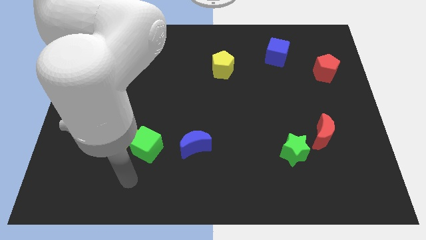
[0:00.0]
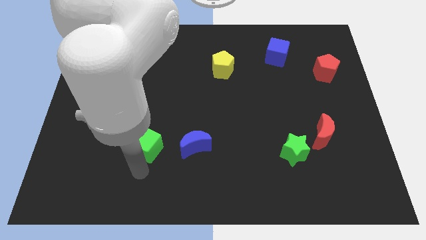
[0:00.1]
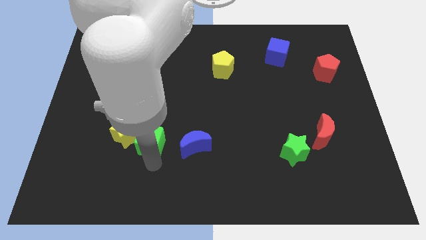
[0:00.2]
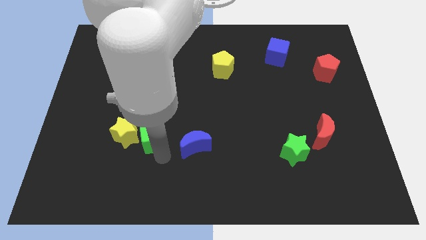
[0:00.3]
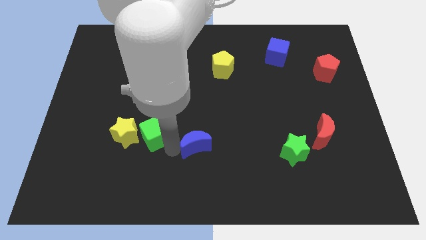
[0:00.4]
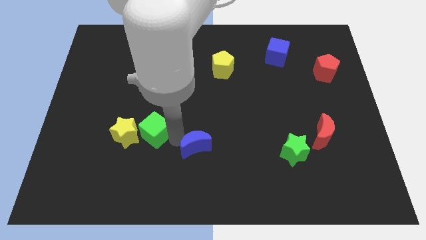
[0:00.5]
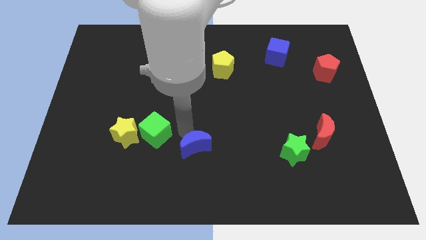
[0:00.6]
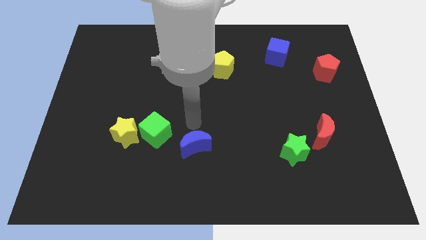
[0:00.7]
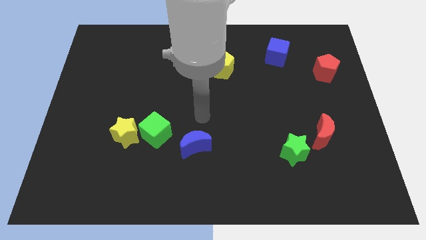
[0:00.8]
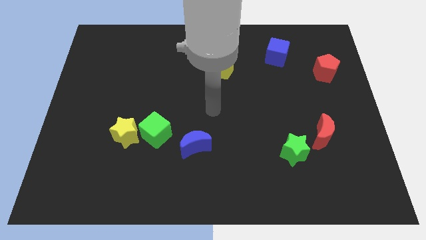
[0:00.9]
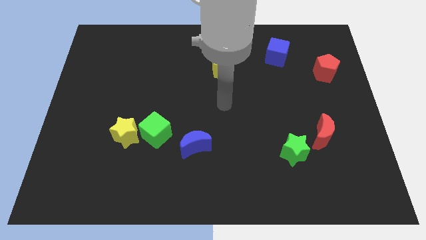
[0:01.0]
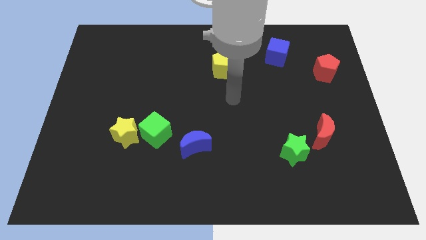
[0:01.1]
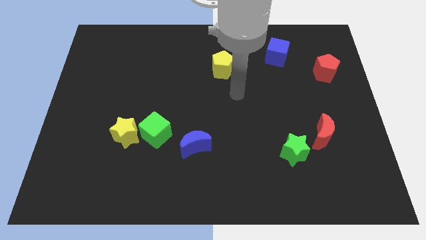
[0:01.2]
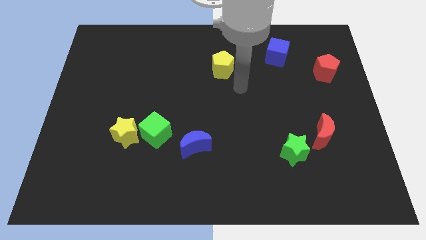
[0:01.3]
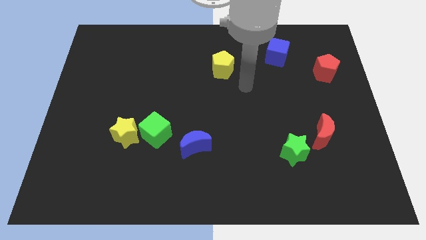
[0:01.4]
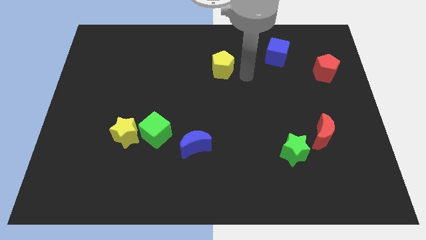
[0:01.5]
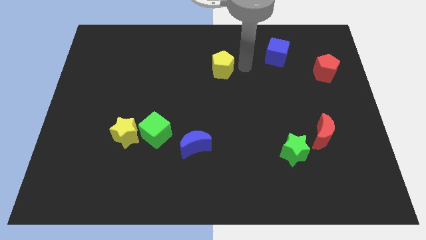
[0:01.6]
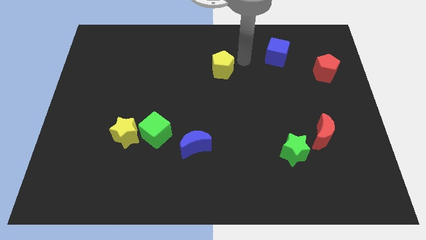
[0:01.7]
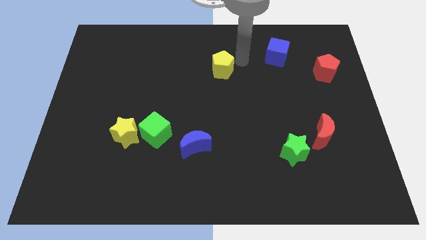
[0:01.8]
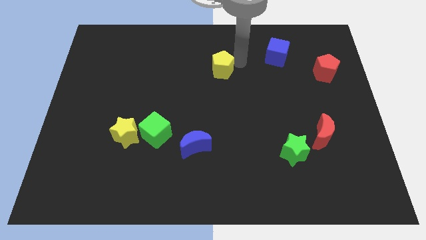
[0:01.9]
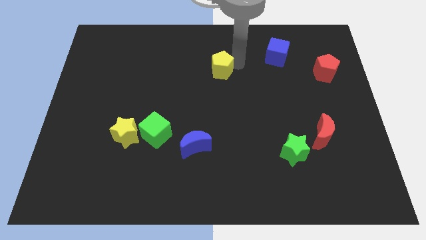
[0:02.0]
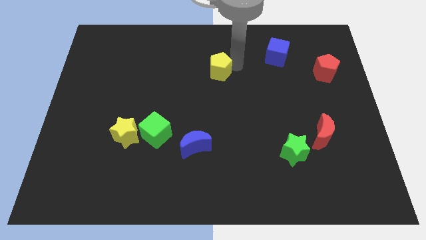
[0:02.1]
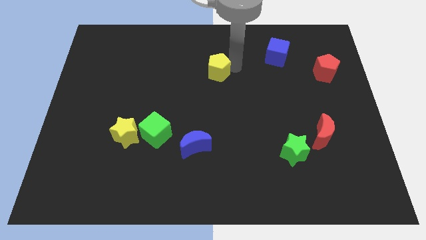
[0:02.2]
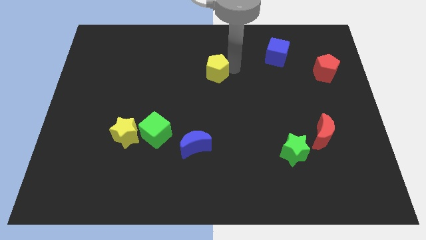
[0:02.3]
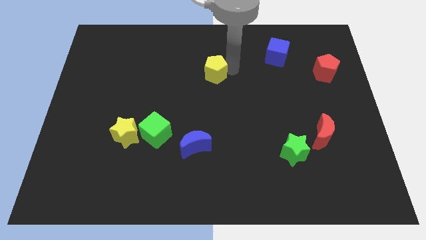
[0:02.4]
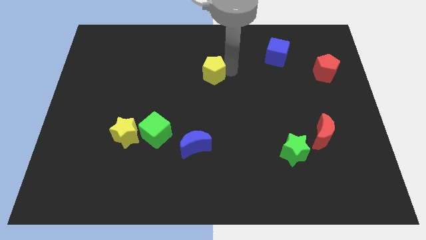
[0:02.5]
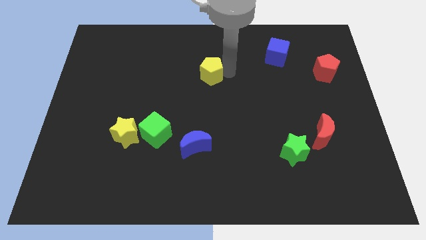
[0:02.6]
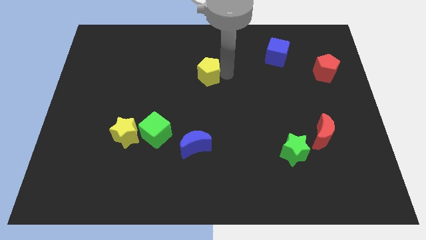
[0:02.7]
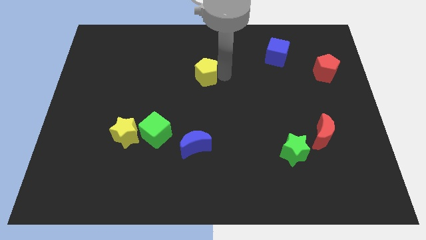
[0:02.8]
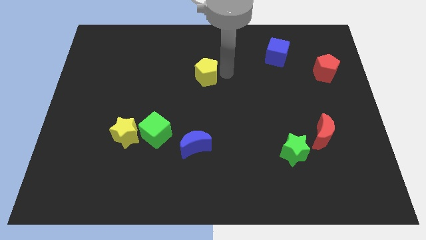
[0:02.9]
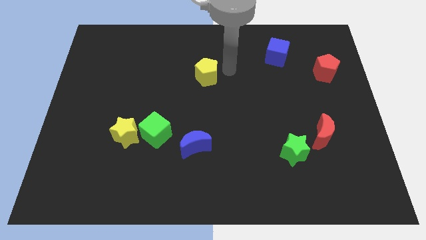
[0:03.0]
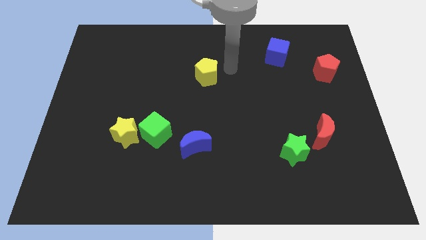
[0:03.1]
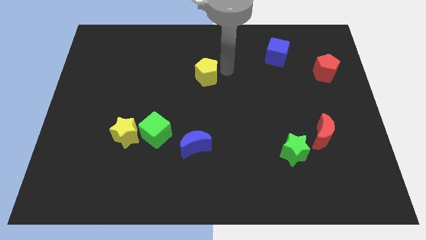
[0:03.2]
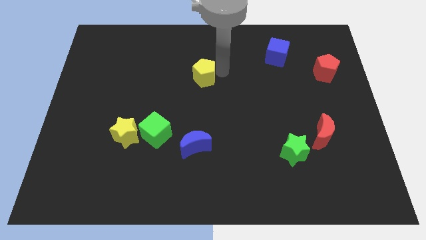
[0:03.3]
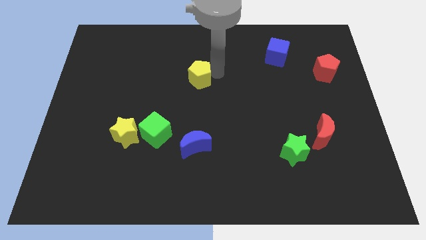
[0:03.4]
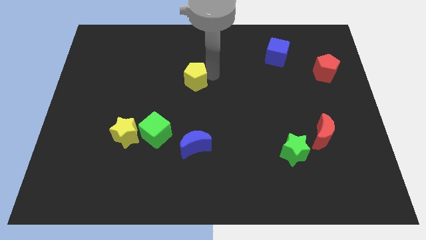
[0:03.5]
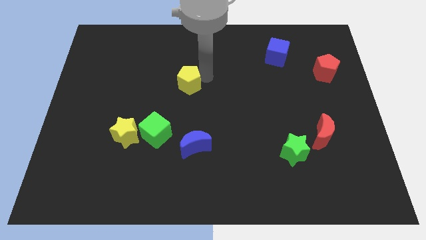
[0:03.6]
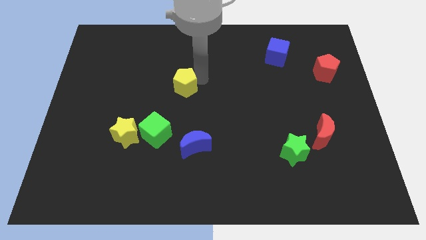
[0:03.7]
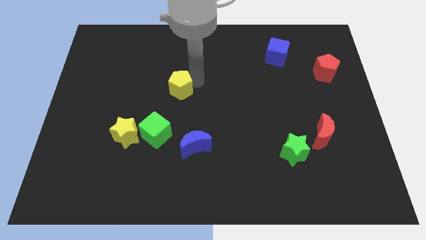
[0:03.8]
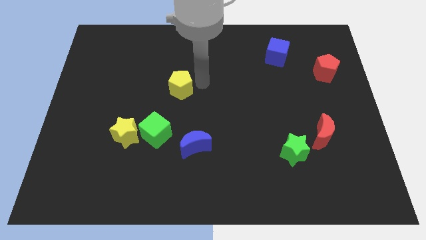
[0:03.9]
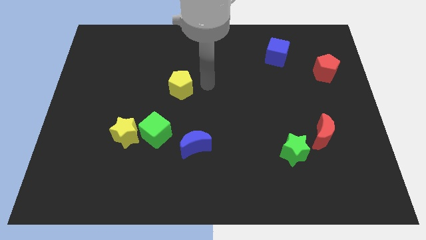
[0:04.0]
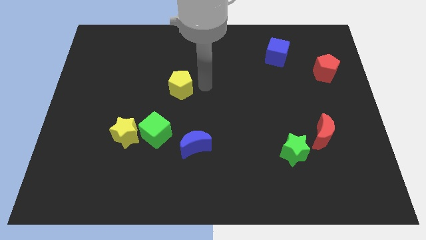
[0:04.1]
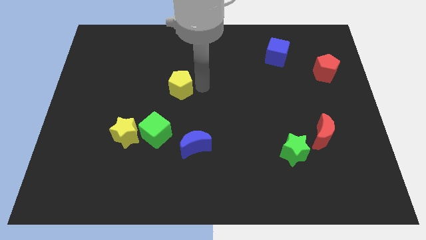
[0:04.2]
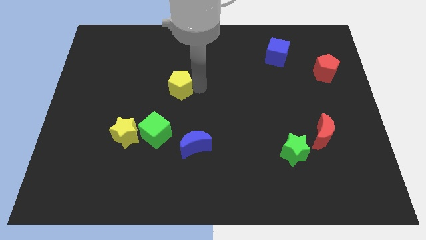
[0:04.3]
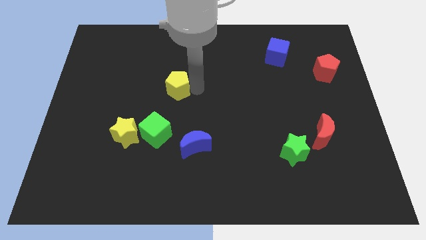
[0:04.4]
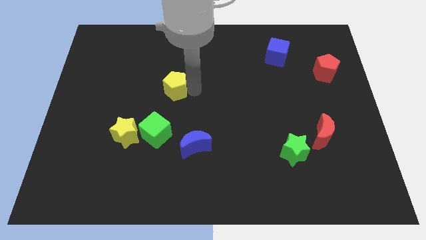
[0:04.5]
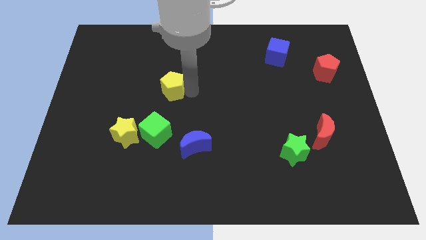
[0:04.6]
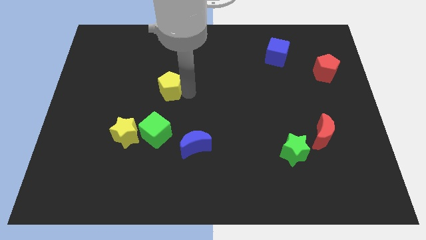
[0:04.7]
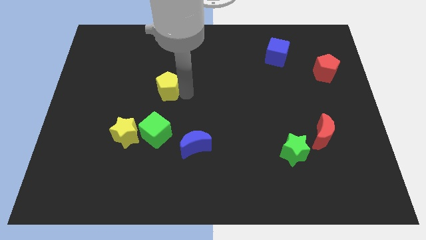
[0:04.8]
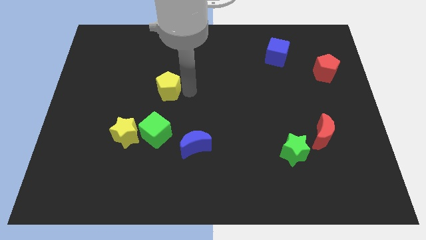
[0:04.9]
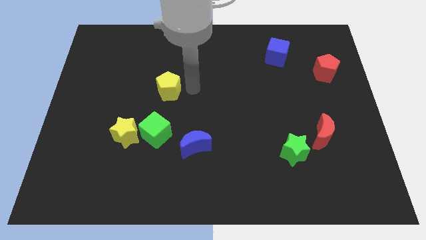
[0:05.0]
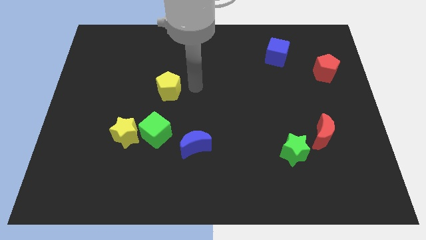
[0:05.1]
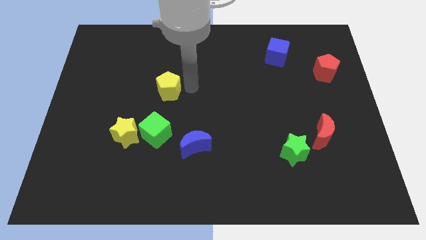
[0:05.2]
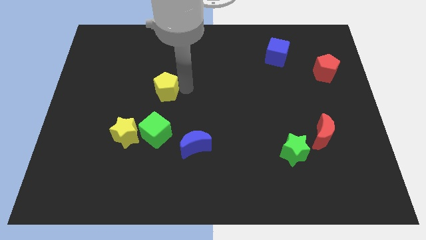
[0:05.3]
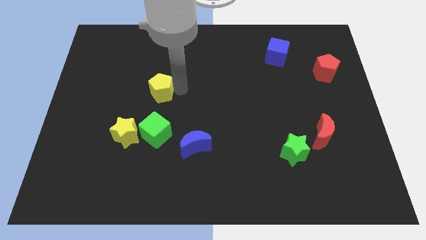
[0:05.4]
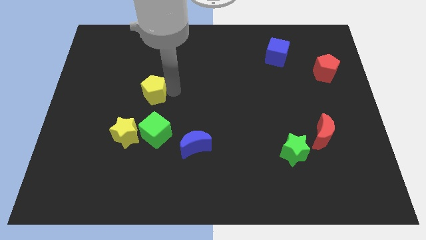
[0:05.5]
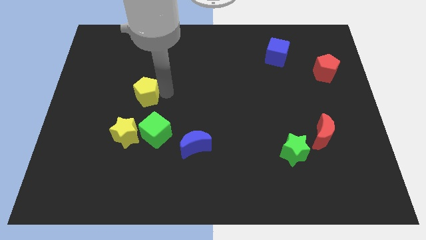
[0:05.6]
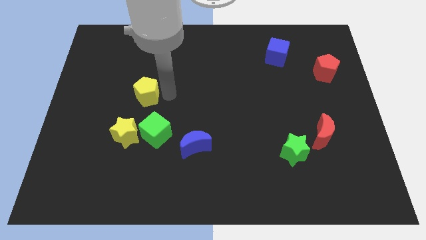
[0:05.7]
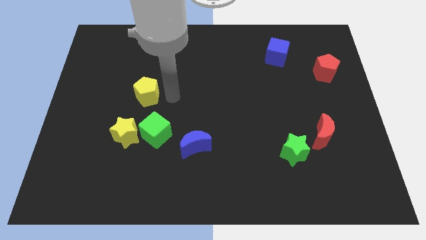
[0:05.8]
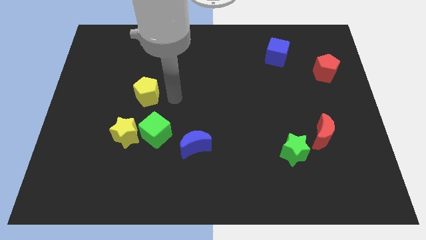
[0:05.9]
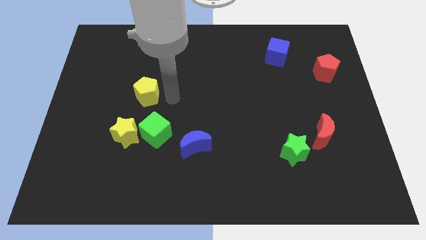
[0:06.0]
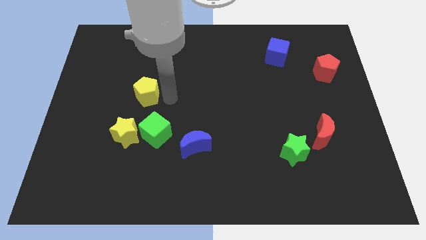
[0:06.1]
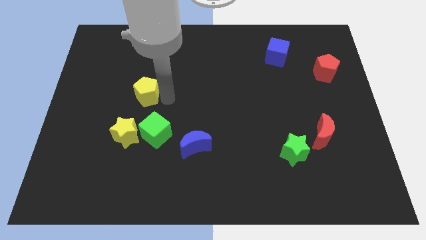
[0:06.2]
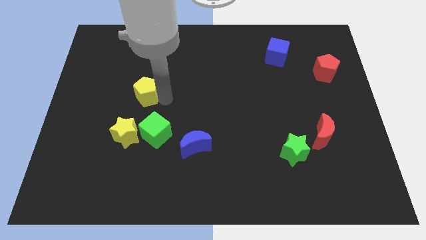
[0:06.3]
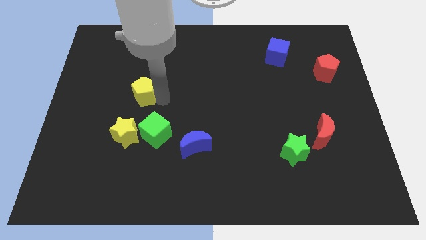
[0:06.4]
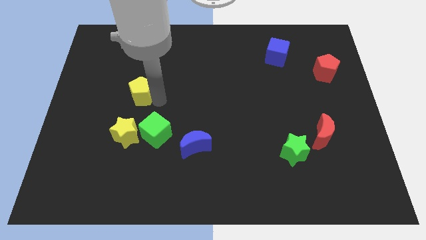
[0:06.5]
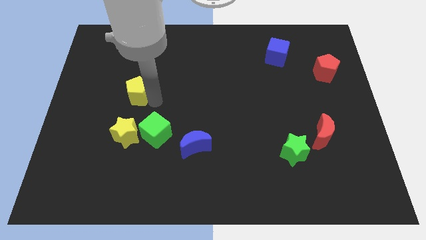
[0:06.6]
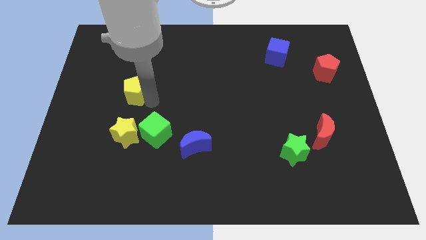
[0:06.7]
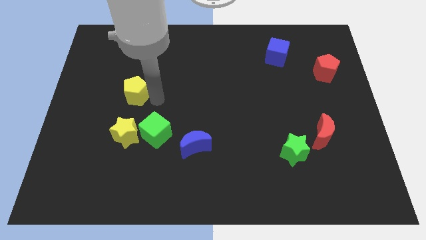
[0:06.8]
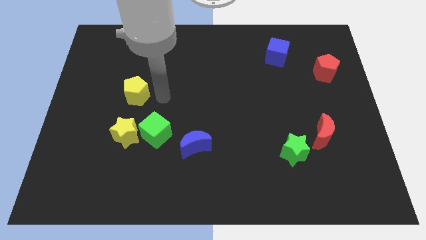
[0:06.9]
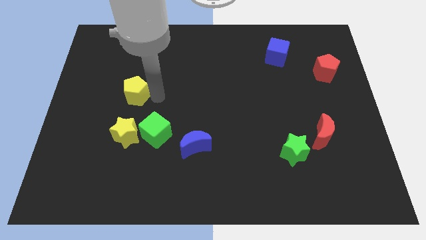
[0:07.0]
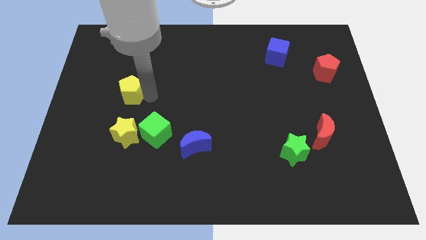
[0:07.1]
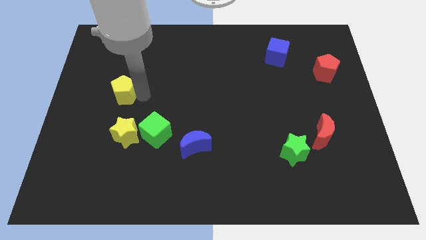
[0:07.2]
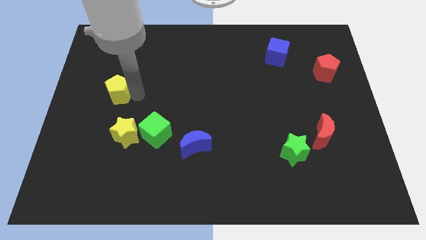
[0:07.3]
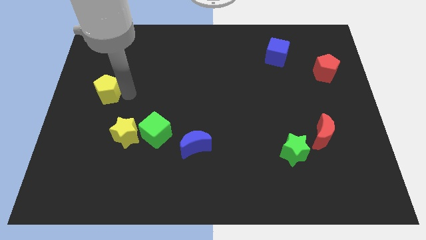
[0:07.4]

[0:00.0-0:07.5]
push the yellow pentagon to the center left
